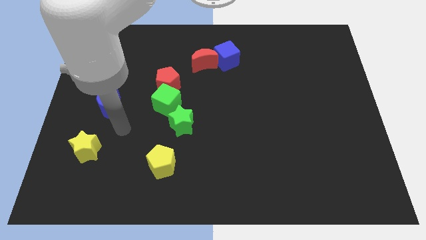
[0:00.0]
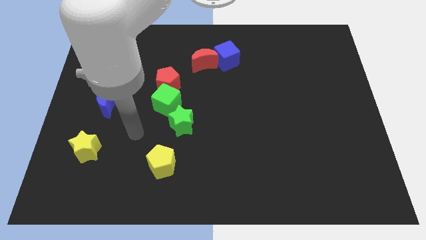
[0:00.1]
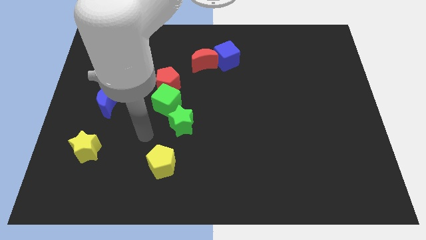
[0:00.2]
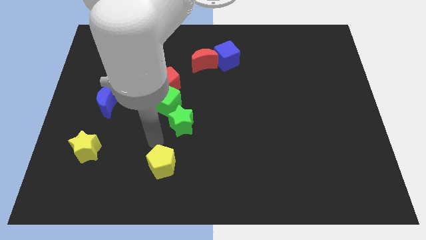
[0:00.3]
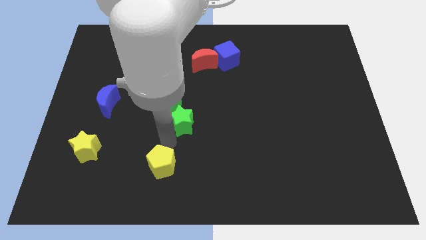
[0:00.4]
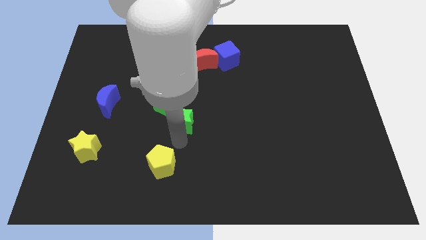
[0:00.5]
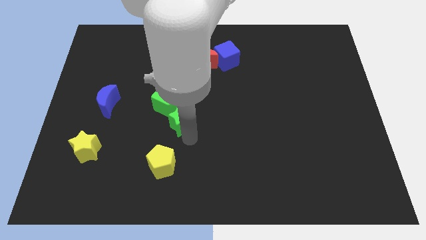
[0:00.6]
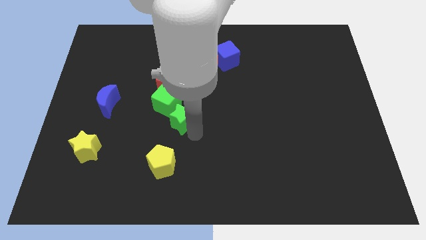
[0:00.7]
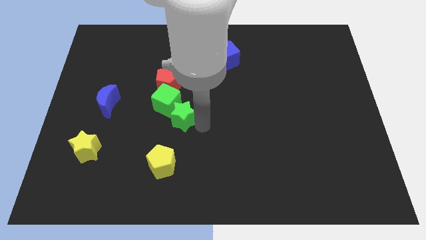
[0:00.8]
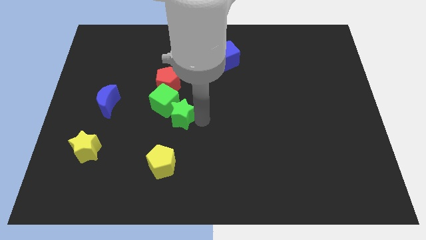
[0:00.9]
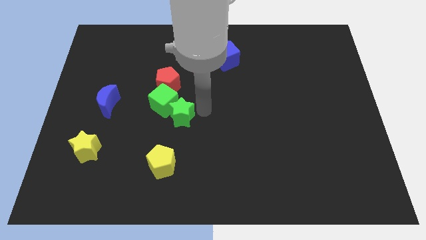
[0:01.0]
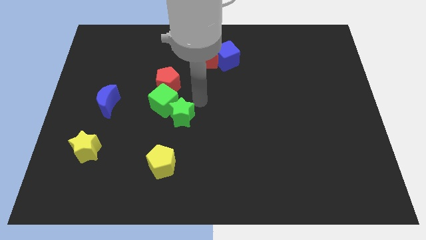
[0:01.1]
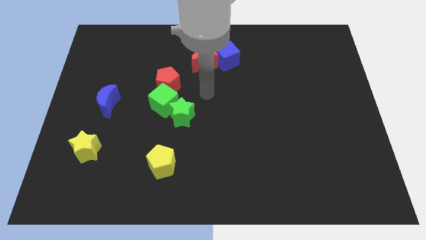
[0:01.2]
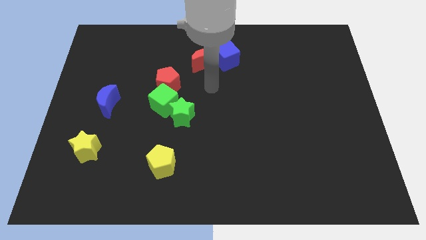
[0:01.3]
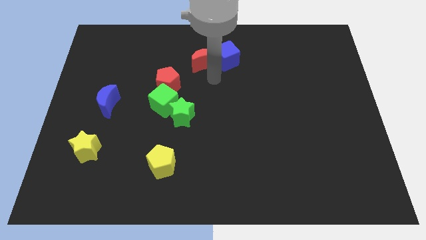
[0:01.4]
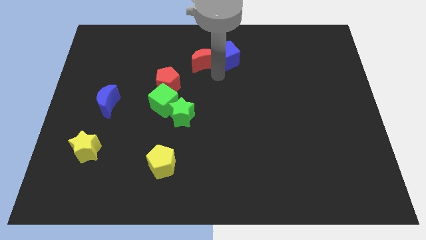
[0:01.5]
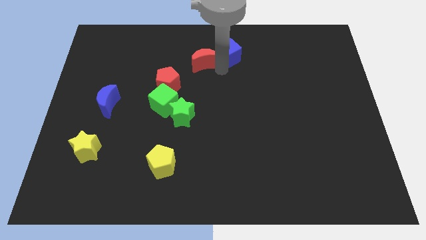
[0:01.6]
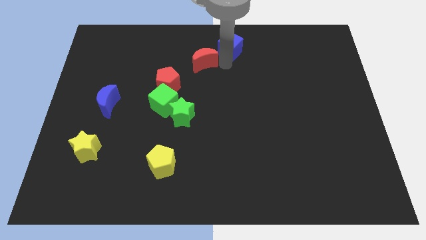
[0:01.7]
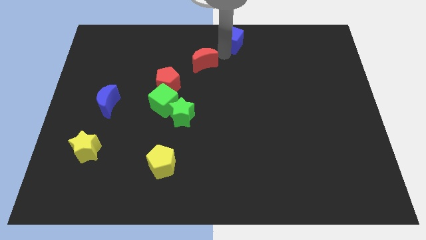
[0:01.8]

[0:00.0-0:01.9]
separate the red moon from the blue cube

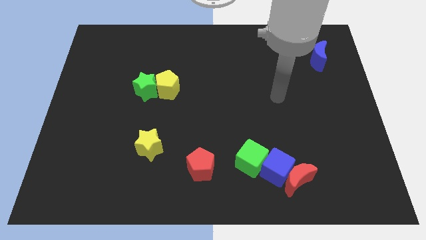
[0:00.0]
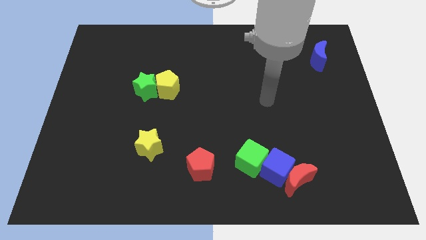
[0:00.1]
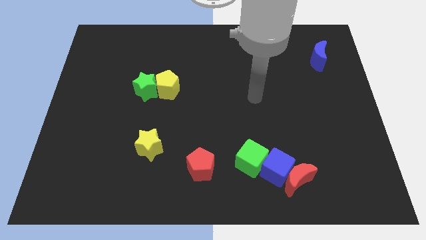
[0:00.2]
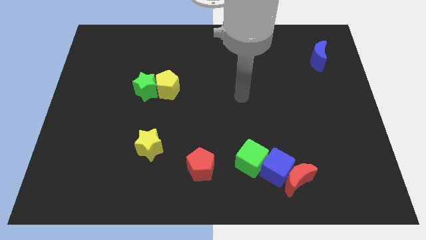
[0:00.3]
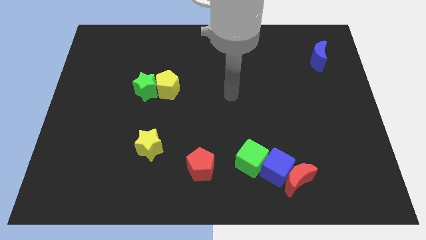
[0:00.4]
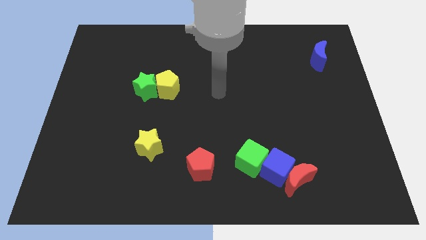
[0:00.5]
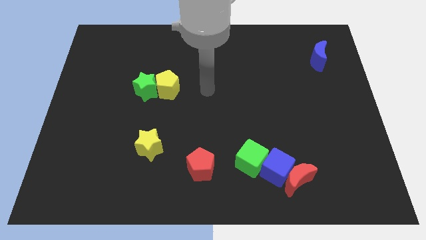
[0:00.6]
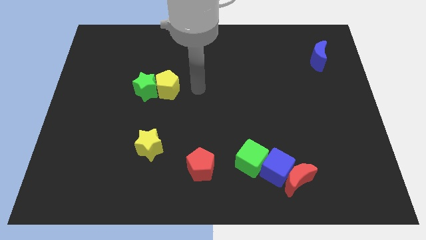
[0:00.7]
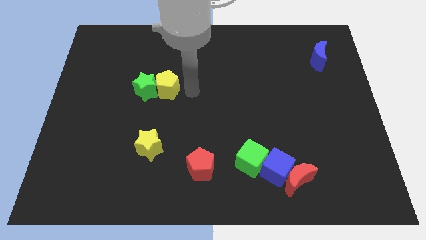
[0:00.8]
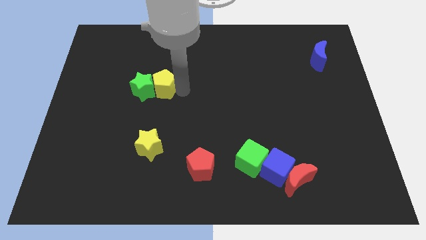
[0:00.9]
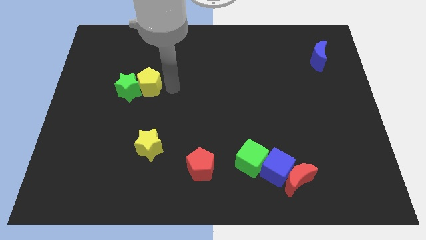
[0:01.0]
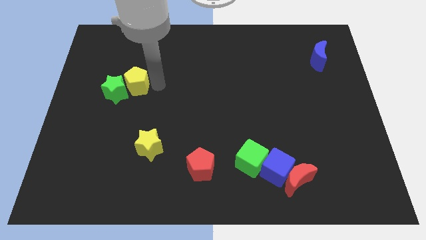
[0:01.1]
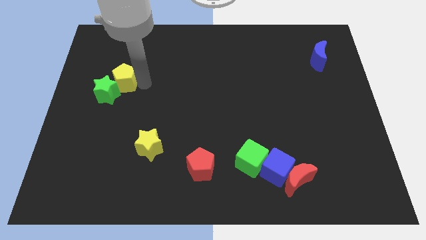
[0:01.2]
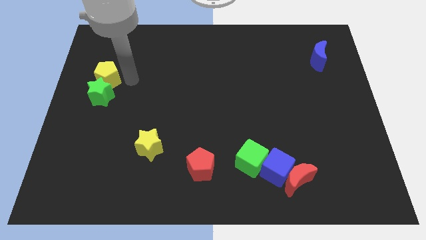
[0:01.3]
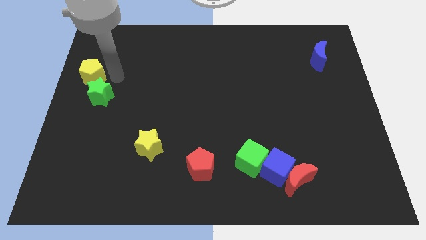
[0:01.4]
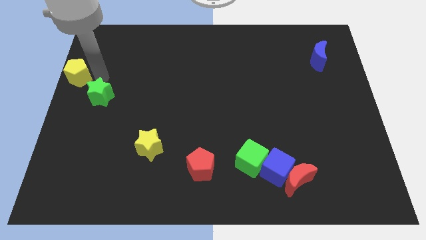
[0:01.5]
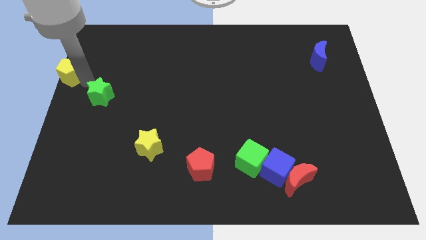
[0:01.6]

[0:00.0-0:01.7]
pull the green star apart from the yellow pentagon

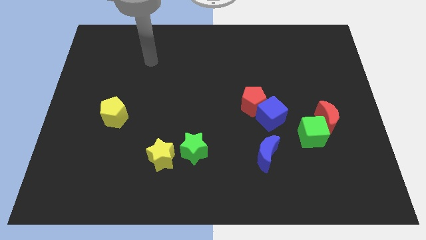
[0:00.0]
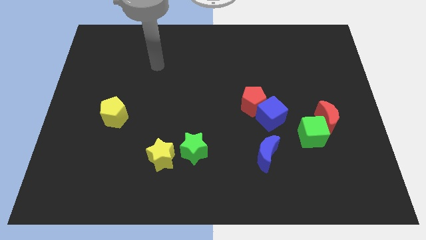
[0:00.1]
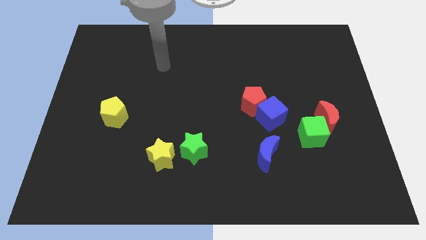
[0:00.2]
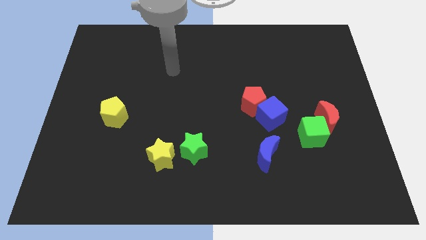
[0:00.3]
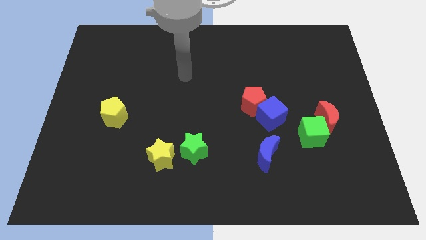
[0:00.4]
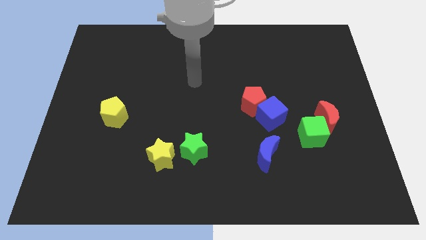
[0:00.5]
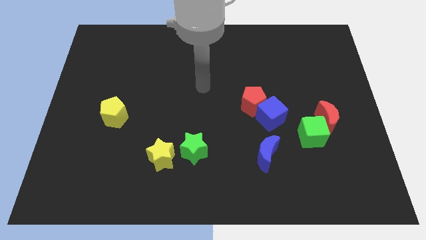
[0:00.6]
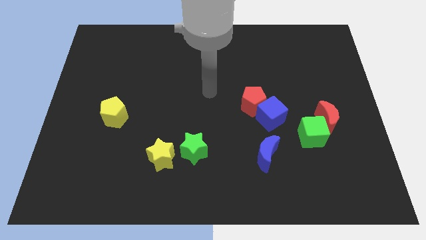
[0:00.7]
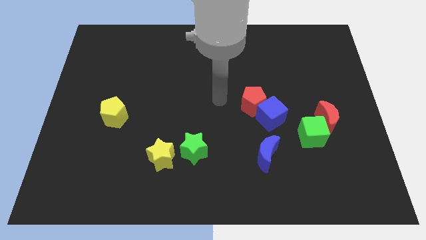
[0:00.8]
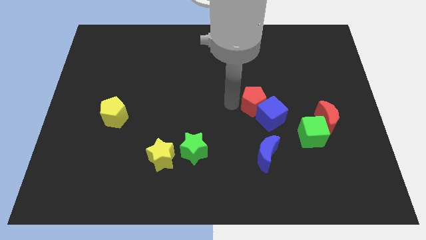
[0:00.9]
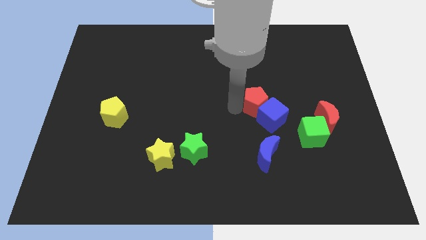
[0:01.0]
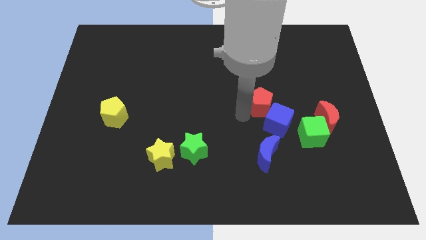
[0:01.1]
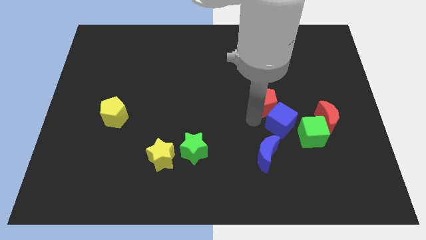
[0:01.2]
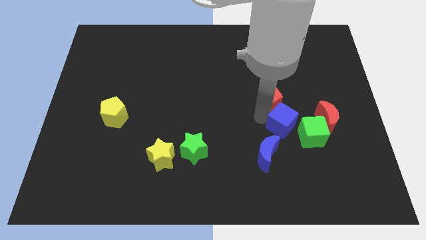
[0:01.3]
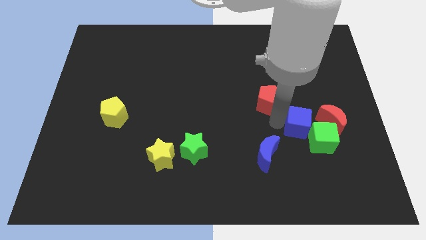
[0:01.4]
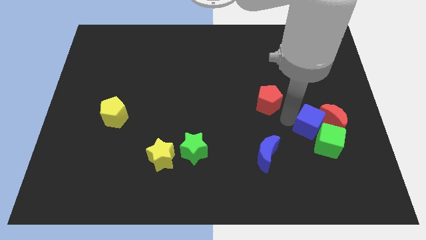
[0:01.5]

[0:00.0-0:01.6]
move the red pentagon away from the blue cube

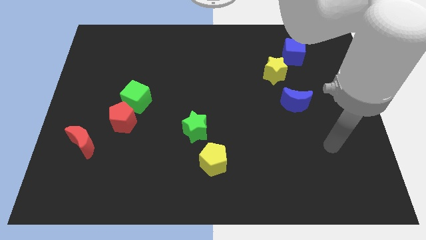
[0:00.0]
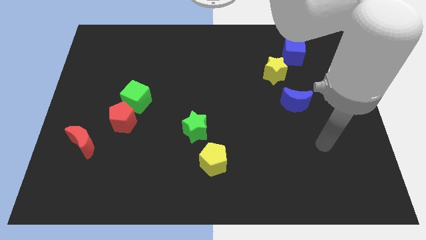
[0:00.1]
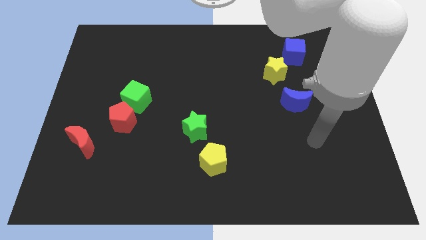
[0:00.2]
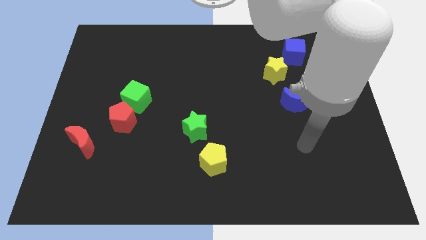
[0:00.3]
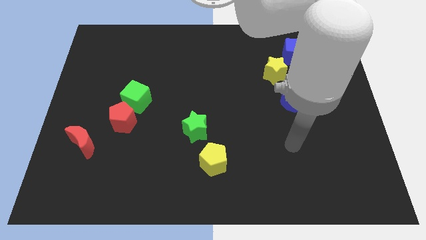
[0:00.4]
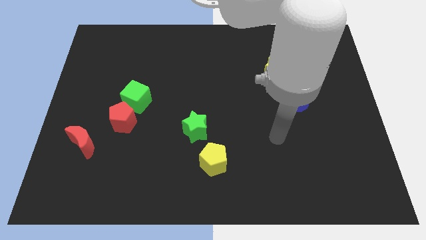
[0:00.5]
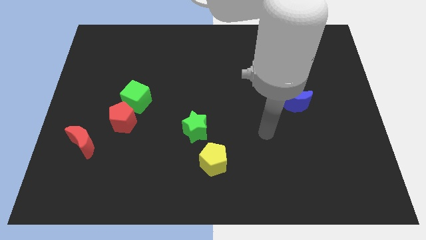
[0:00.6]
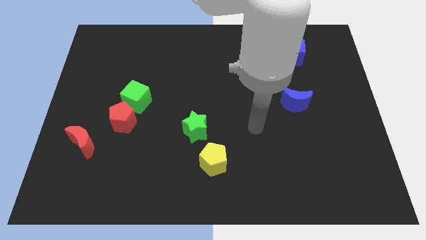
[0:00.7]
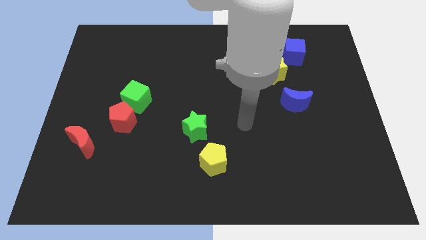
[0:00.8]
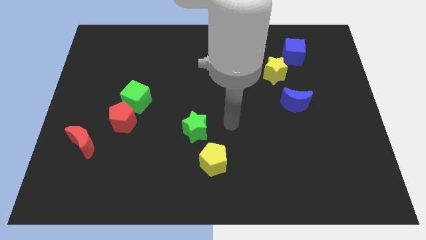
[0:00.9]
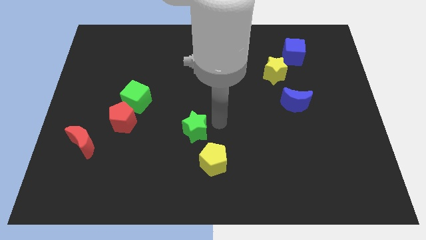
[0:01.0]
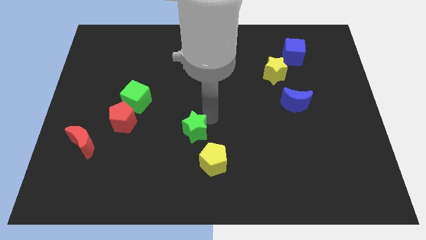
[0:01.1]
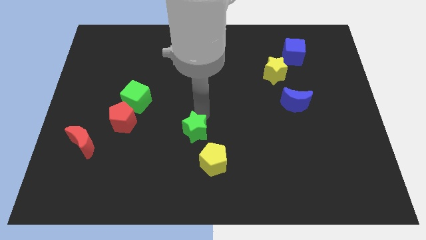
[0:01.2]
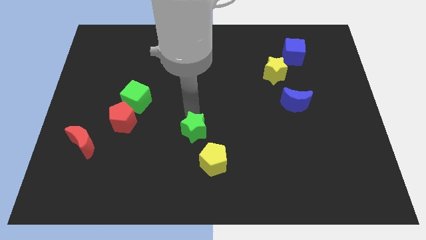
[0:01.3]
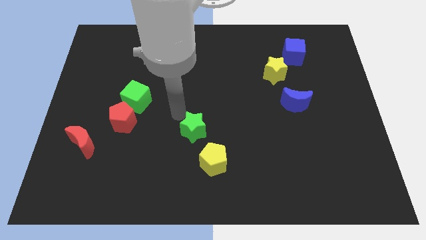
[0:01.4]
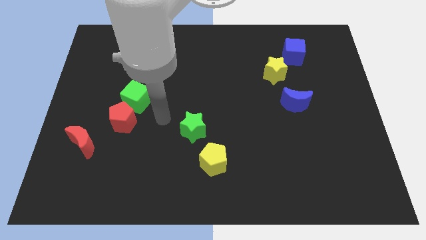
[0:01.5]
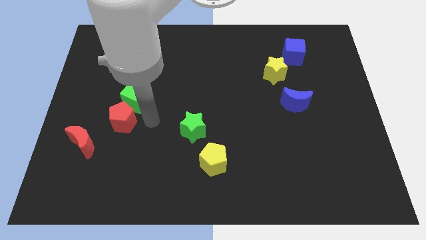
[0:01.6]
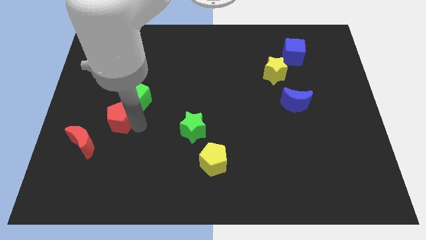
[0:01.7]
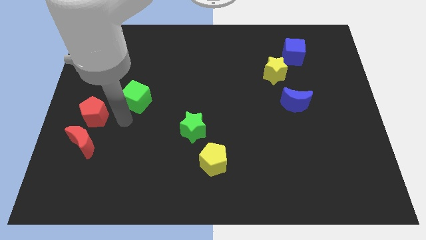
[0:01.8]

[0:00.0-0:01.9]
separate the green cube from the red pentagon

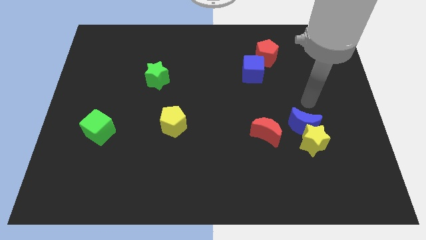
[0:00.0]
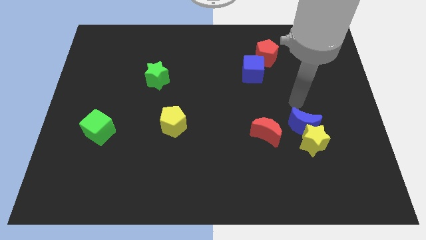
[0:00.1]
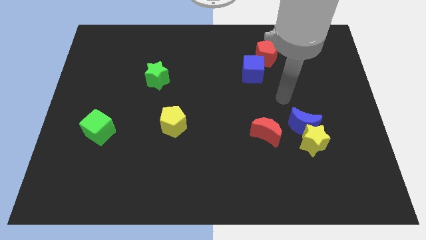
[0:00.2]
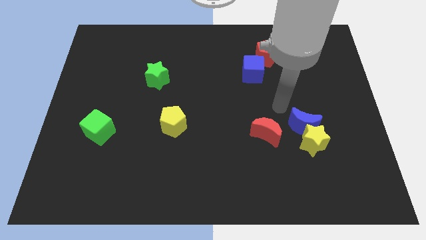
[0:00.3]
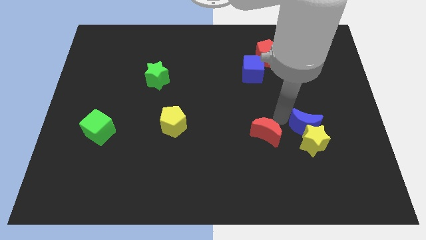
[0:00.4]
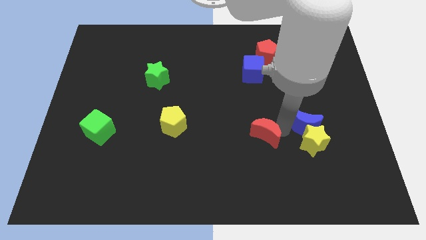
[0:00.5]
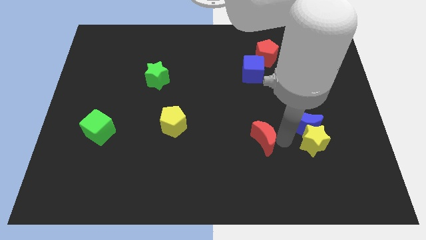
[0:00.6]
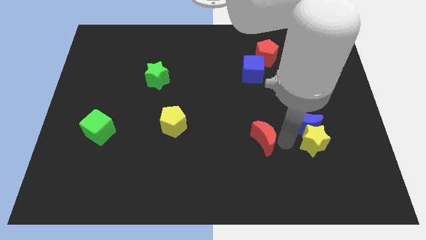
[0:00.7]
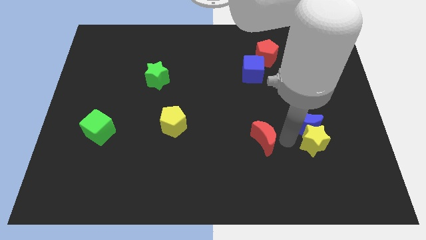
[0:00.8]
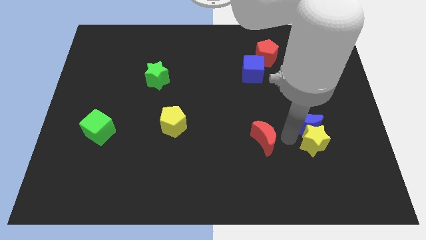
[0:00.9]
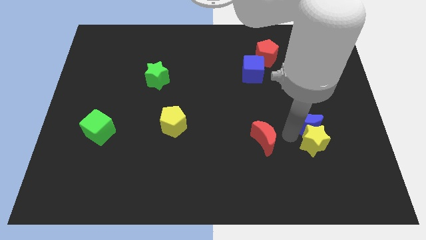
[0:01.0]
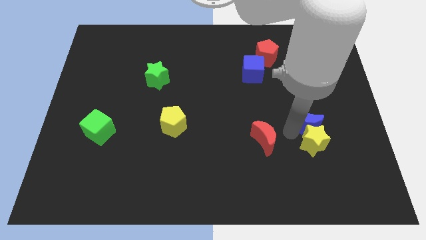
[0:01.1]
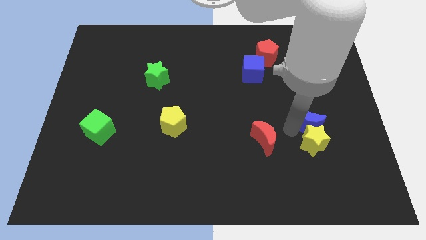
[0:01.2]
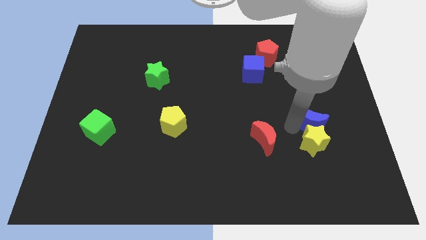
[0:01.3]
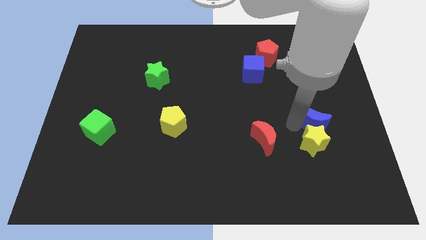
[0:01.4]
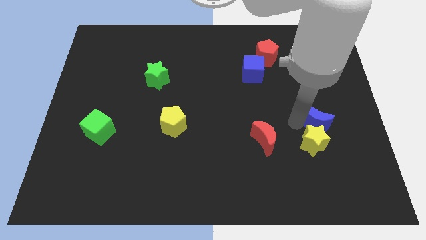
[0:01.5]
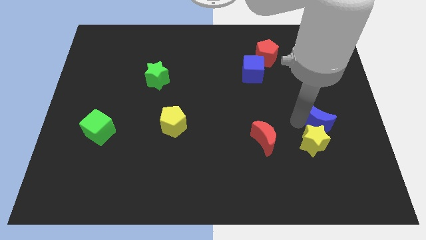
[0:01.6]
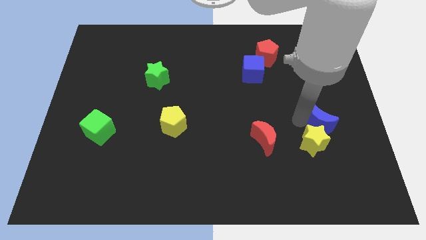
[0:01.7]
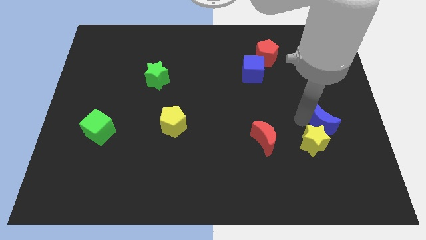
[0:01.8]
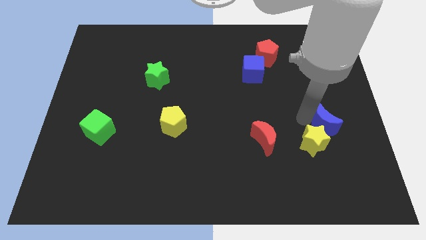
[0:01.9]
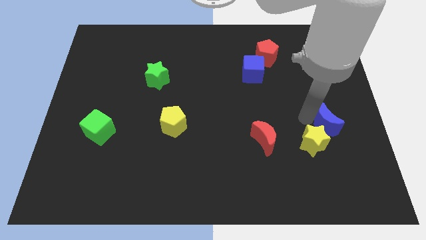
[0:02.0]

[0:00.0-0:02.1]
move the blue moon away from the yellow star and red moon
